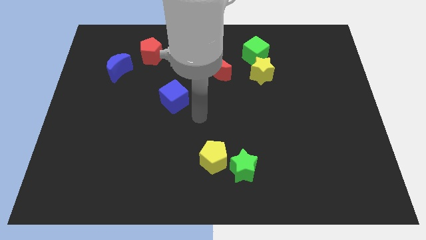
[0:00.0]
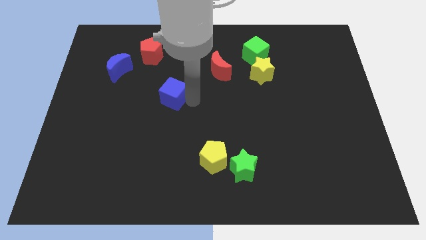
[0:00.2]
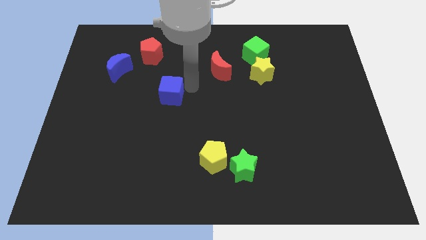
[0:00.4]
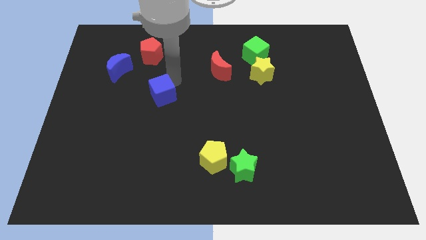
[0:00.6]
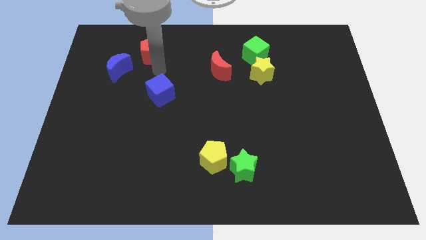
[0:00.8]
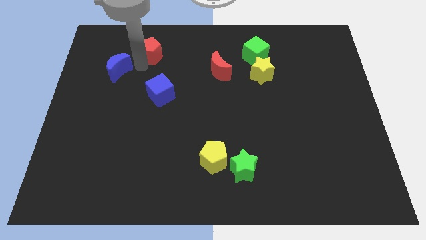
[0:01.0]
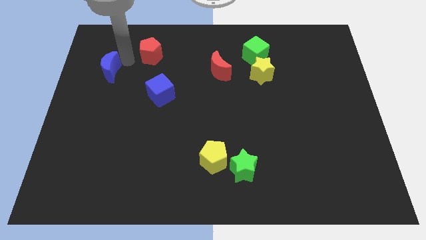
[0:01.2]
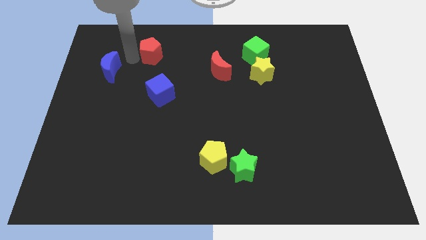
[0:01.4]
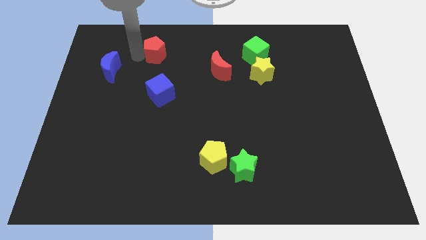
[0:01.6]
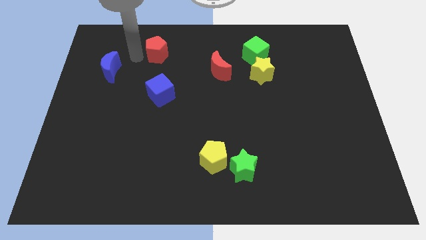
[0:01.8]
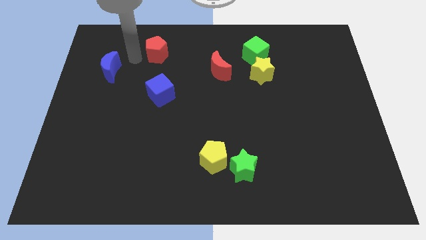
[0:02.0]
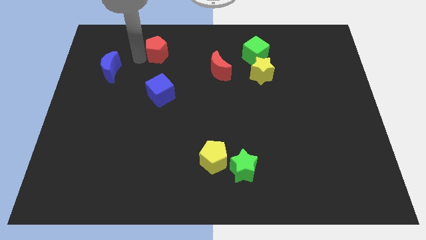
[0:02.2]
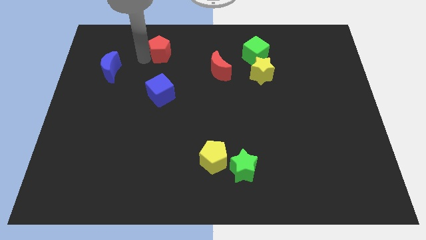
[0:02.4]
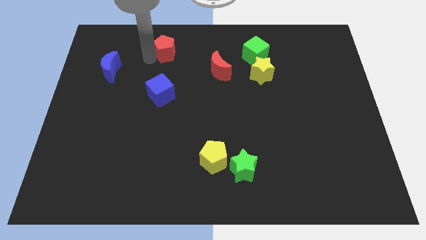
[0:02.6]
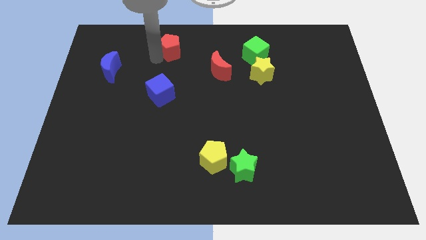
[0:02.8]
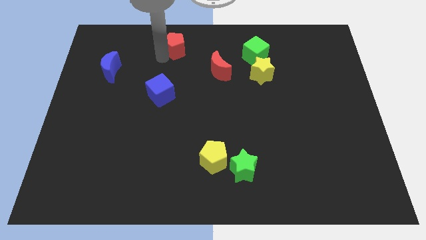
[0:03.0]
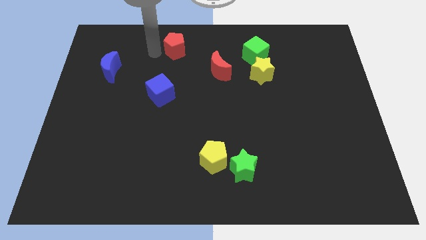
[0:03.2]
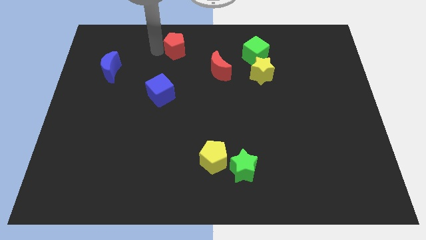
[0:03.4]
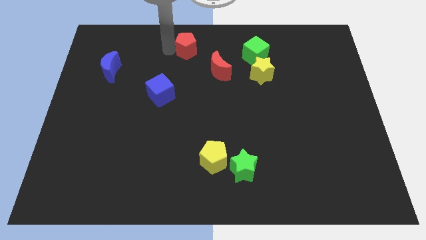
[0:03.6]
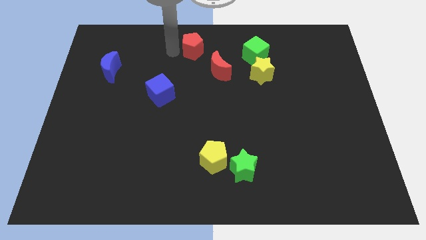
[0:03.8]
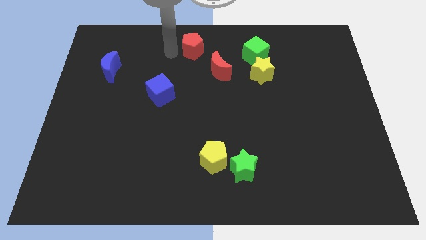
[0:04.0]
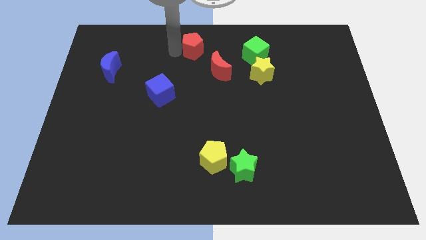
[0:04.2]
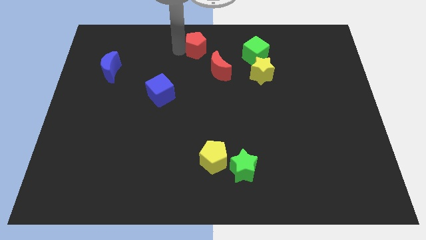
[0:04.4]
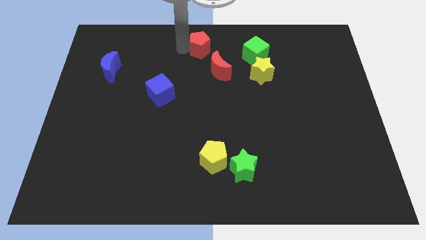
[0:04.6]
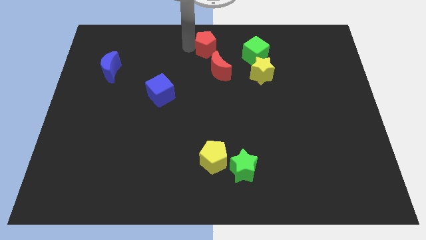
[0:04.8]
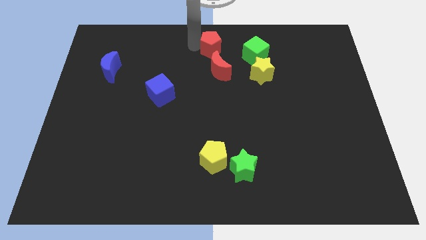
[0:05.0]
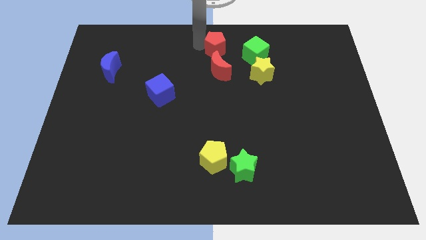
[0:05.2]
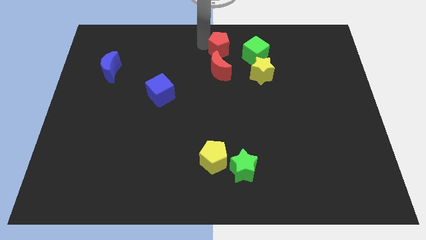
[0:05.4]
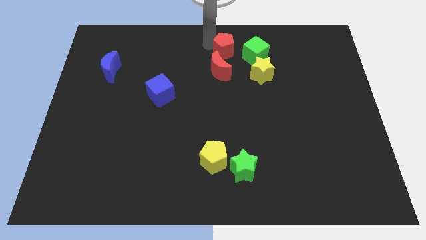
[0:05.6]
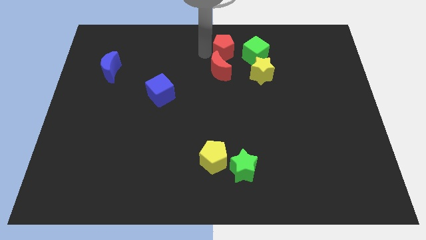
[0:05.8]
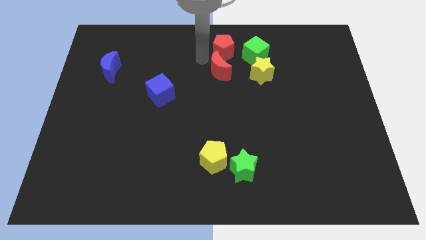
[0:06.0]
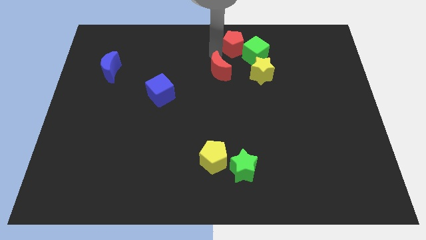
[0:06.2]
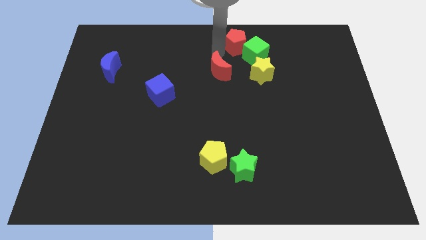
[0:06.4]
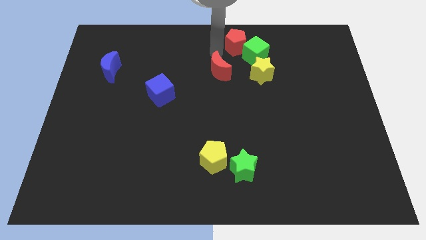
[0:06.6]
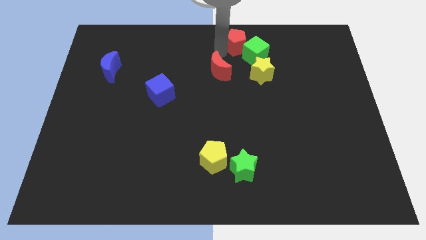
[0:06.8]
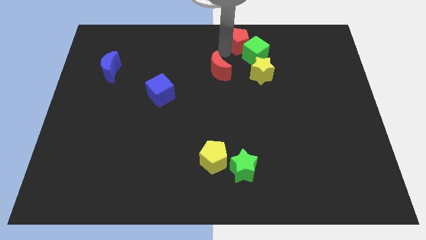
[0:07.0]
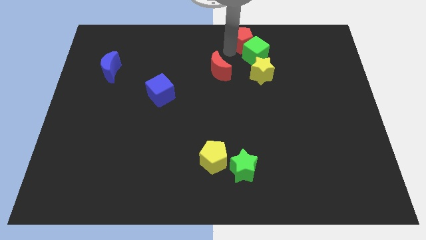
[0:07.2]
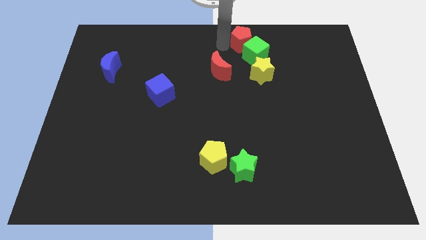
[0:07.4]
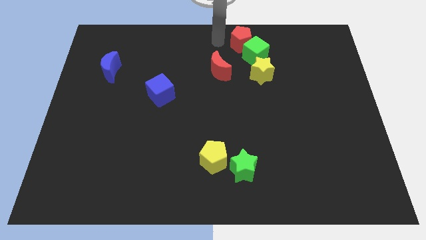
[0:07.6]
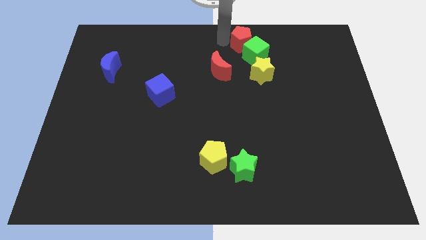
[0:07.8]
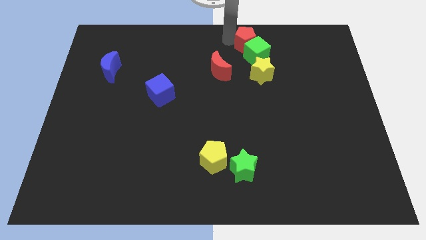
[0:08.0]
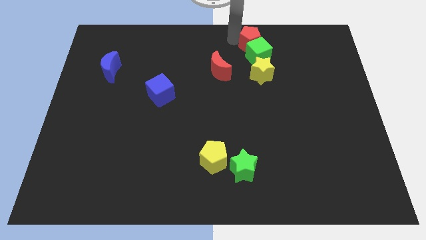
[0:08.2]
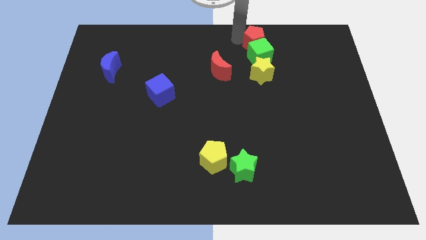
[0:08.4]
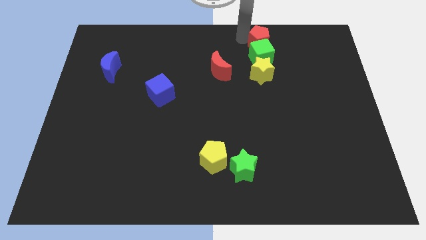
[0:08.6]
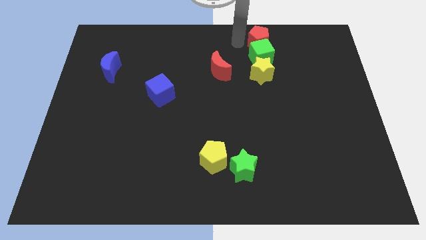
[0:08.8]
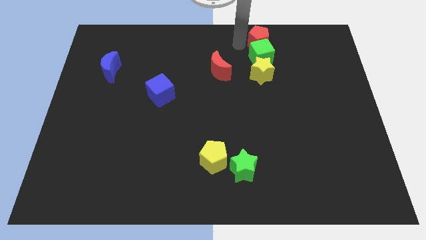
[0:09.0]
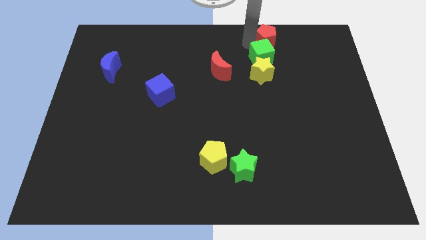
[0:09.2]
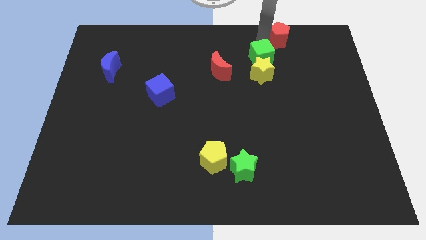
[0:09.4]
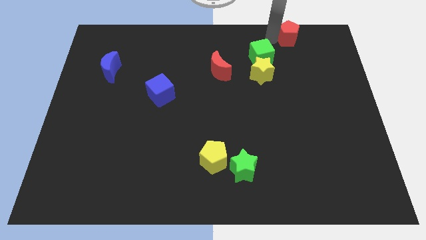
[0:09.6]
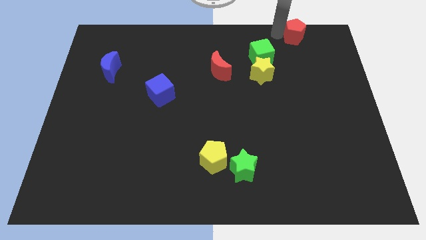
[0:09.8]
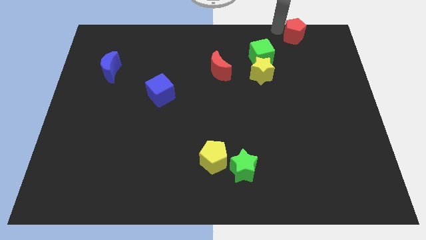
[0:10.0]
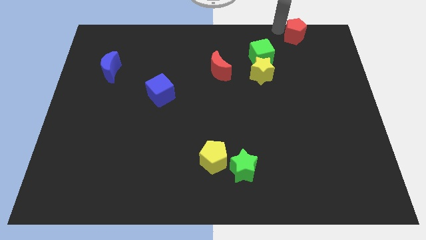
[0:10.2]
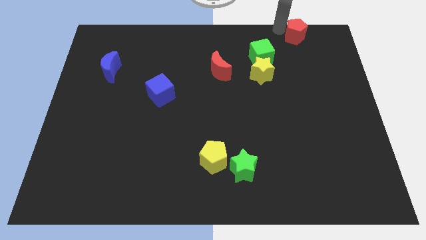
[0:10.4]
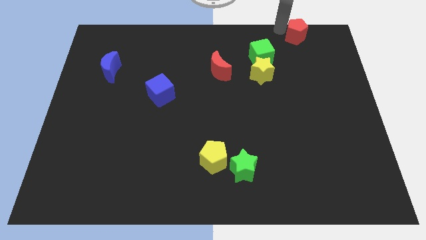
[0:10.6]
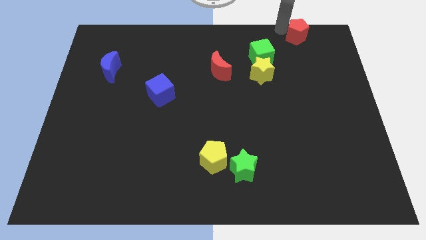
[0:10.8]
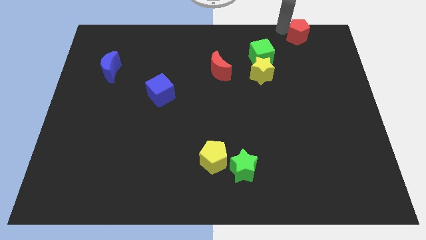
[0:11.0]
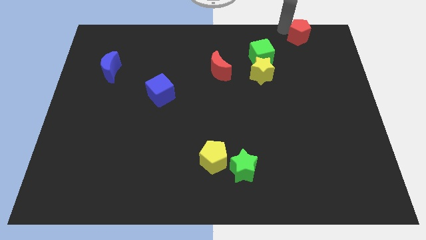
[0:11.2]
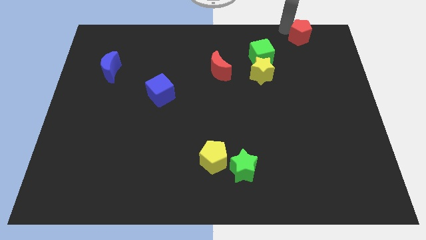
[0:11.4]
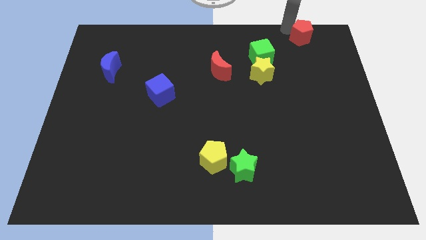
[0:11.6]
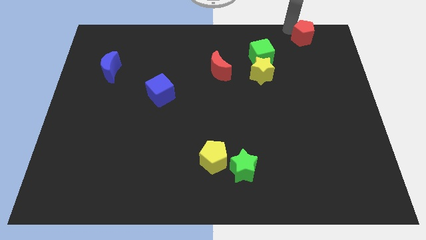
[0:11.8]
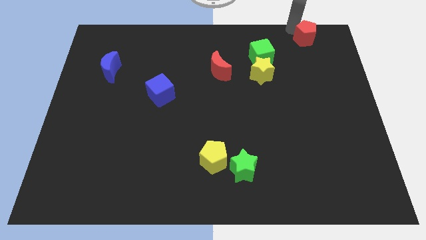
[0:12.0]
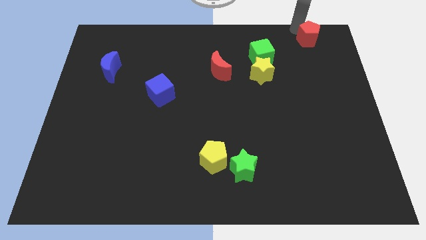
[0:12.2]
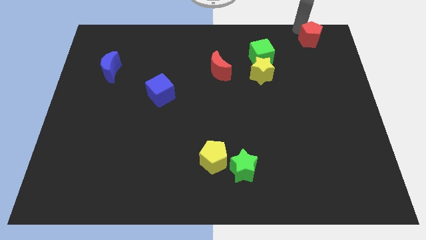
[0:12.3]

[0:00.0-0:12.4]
put the red pentagon to the top right corner

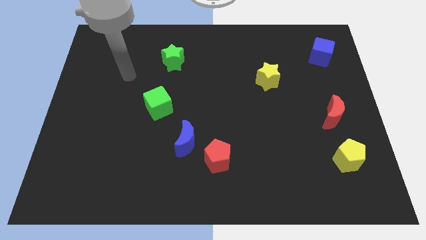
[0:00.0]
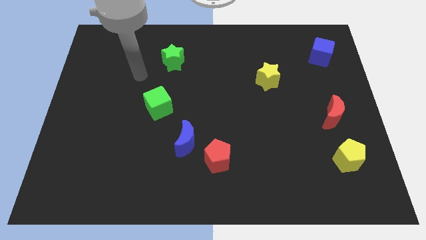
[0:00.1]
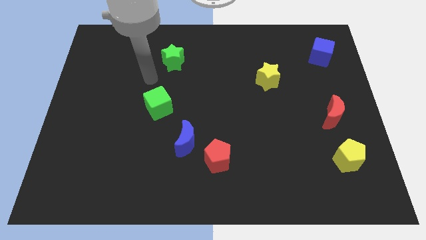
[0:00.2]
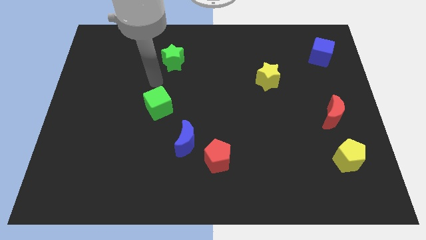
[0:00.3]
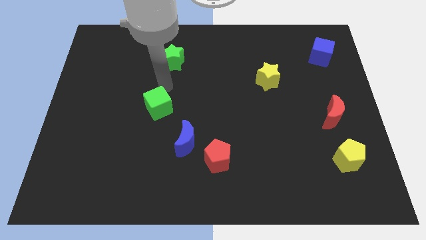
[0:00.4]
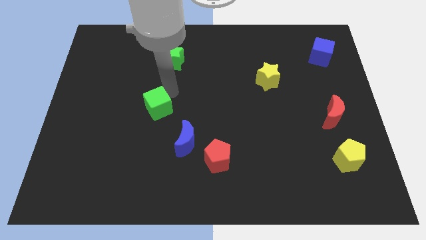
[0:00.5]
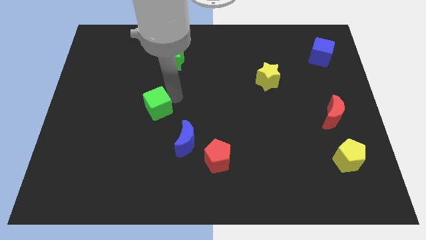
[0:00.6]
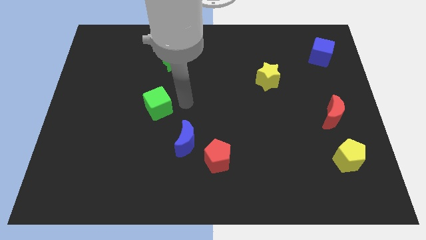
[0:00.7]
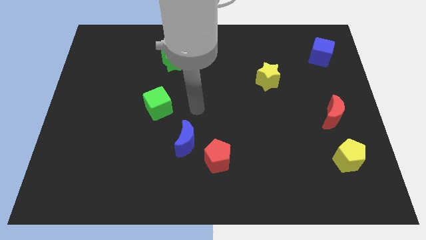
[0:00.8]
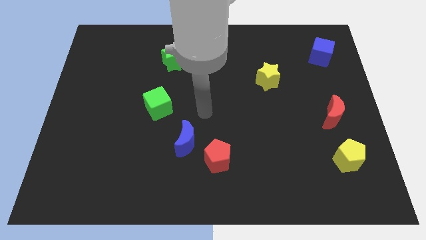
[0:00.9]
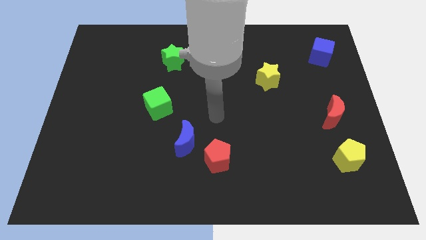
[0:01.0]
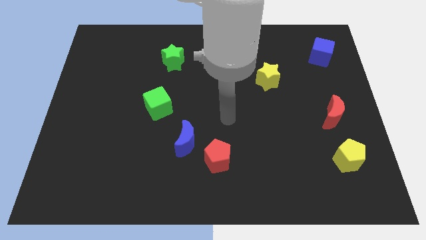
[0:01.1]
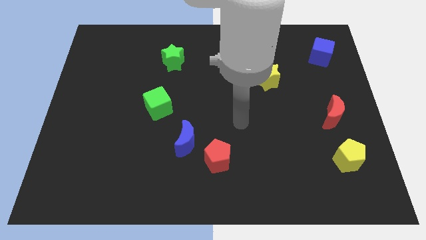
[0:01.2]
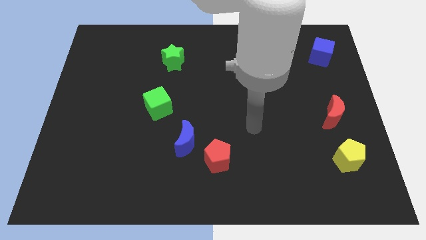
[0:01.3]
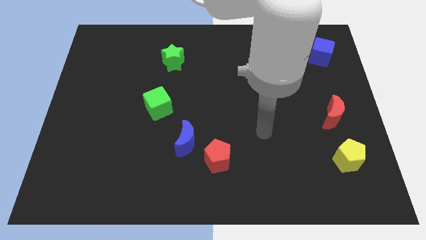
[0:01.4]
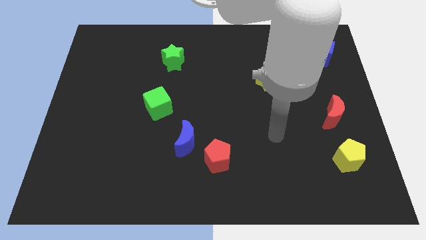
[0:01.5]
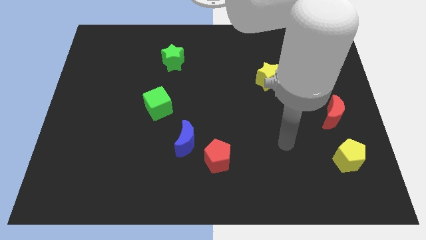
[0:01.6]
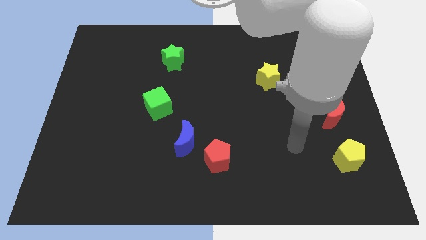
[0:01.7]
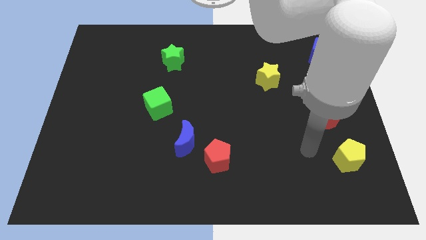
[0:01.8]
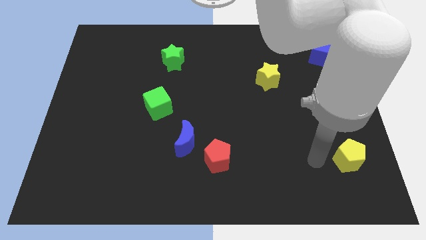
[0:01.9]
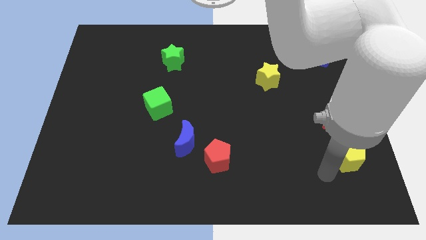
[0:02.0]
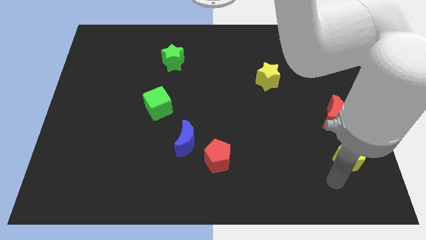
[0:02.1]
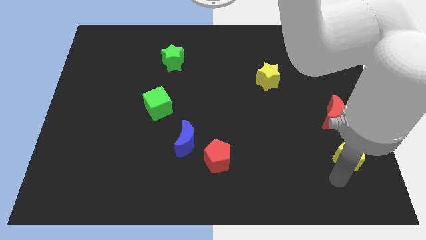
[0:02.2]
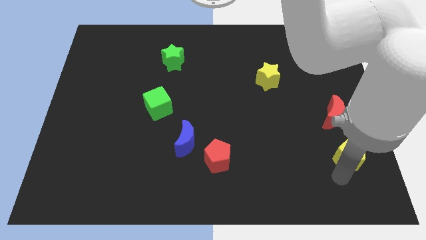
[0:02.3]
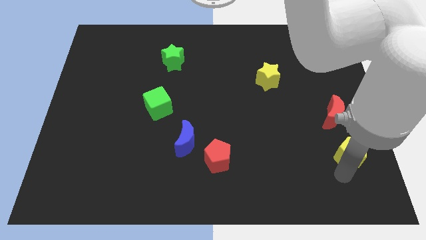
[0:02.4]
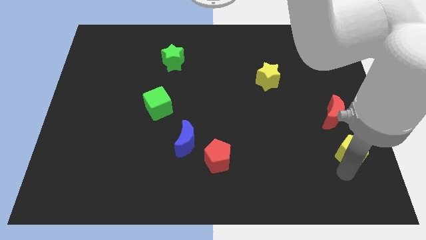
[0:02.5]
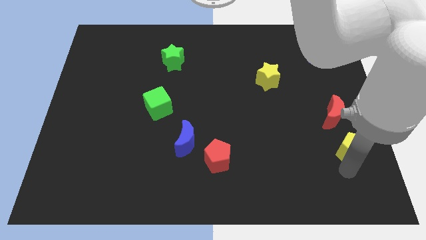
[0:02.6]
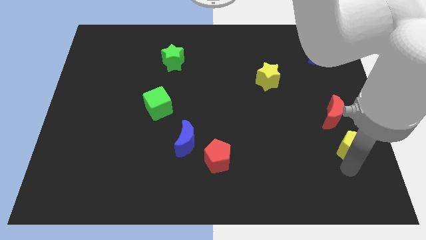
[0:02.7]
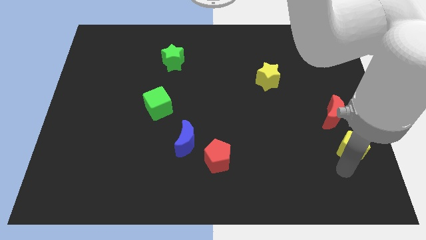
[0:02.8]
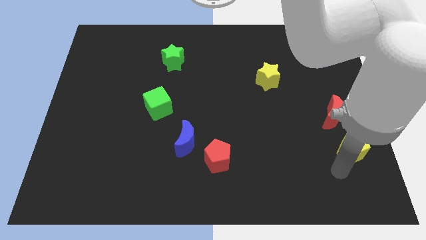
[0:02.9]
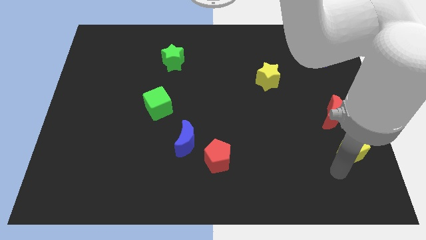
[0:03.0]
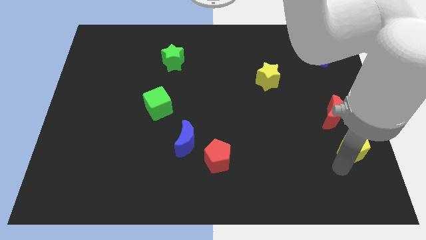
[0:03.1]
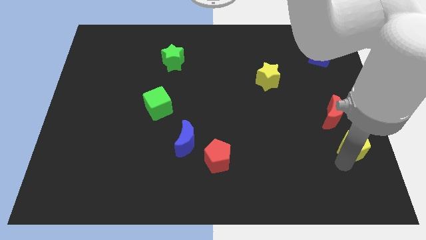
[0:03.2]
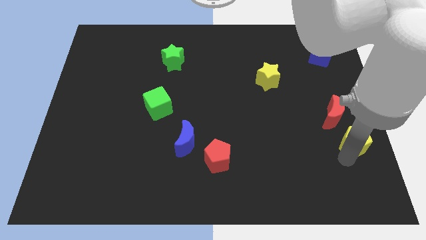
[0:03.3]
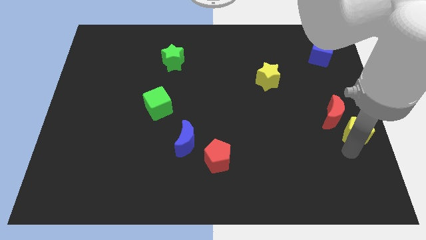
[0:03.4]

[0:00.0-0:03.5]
slide the yellow pentagon to the right side of the board
